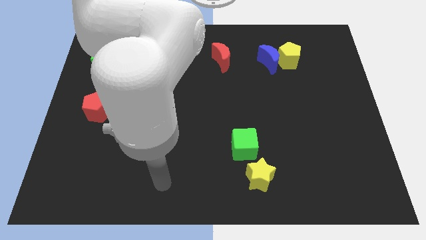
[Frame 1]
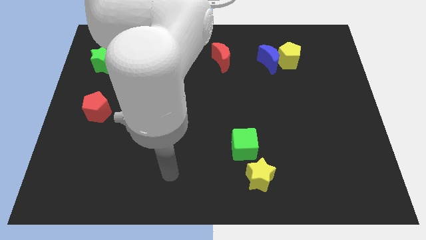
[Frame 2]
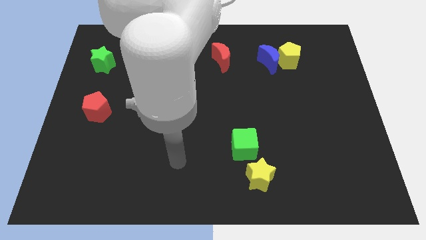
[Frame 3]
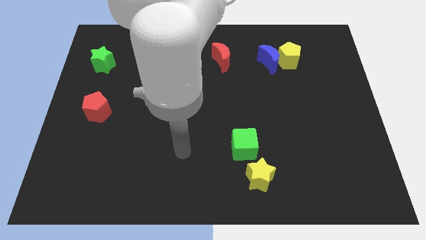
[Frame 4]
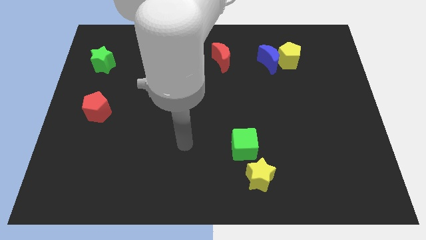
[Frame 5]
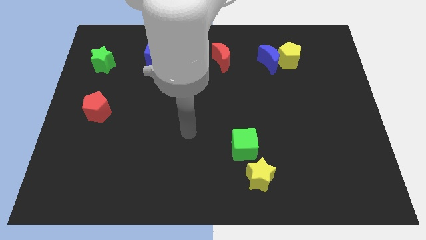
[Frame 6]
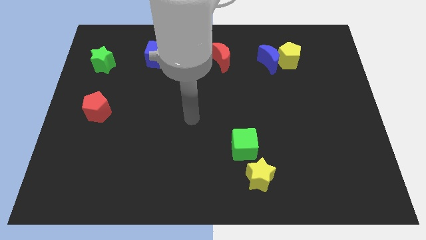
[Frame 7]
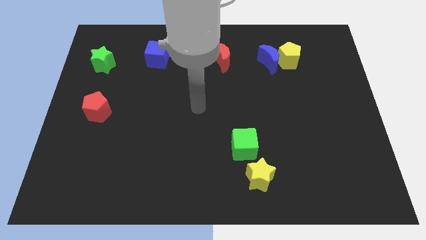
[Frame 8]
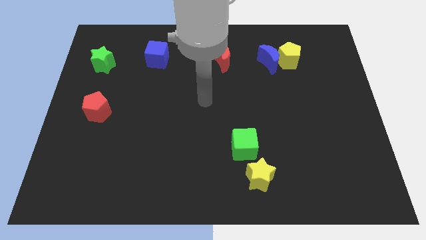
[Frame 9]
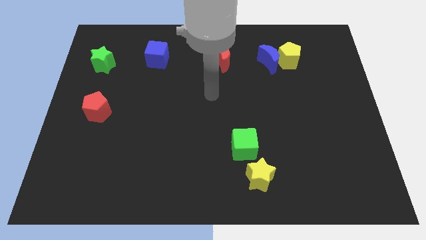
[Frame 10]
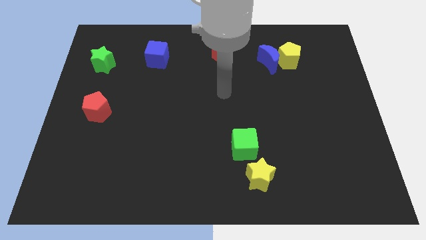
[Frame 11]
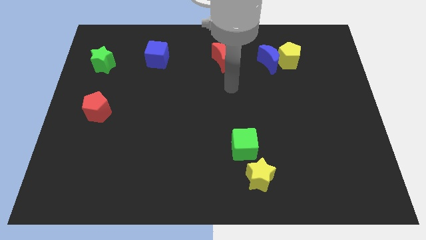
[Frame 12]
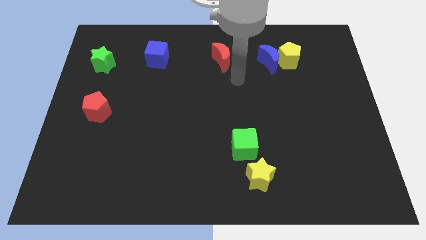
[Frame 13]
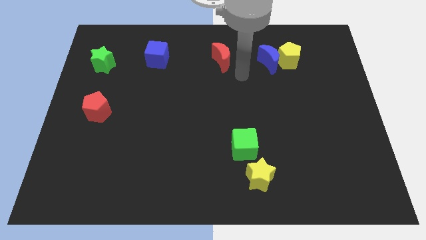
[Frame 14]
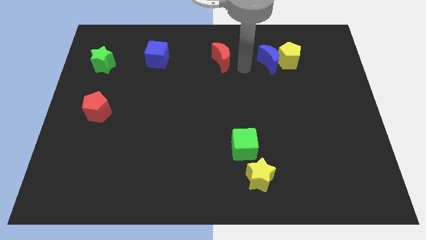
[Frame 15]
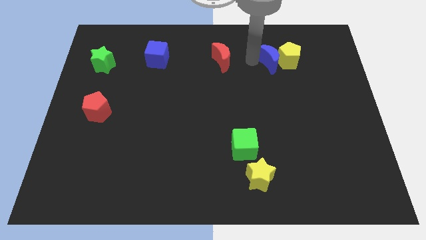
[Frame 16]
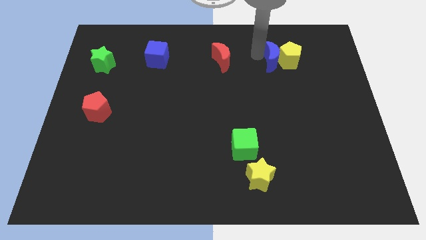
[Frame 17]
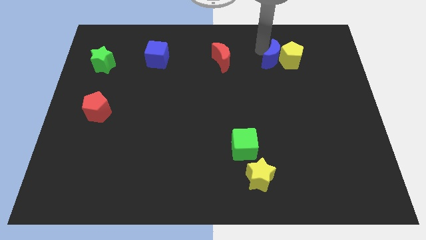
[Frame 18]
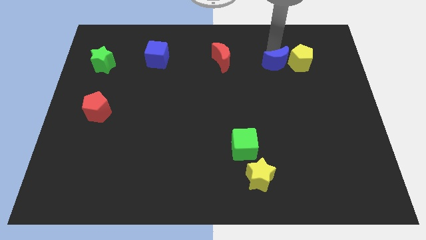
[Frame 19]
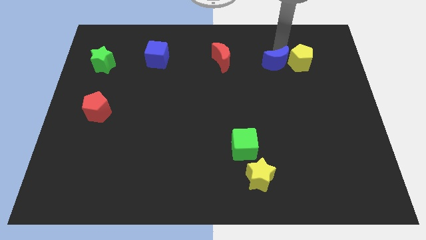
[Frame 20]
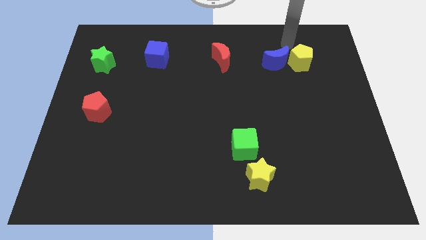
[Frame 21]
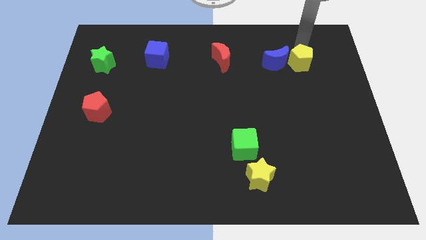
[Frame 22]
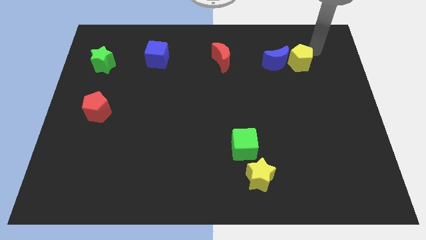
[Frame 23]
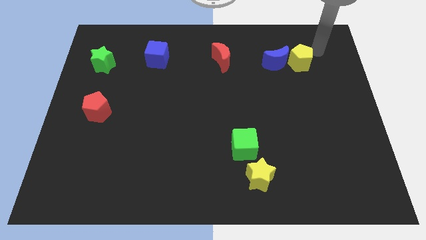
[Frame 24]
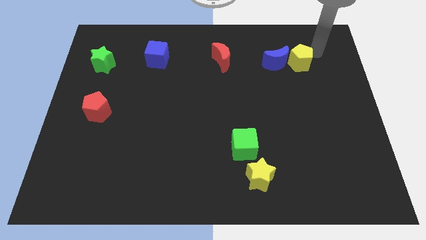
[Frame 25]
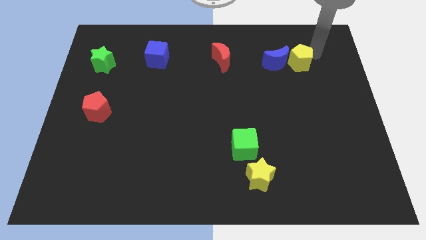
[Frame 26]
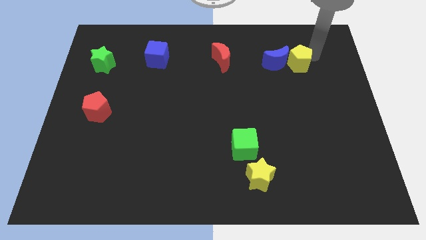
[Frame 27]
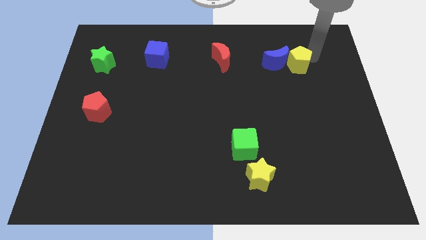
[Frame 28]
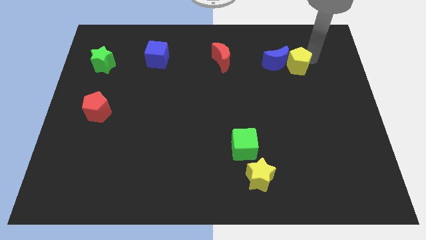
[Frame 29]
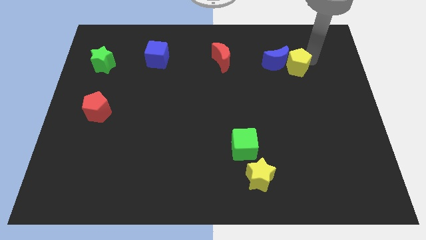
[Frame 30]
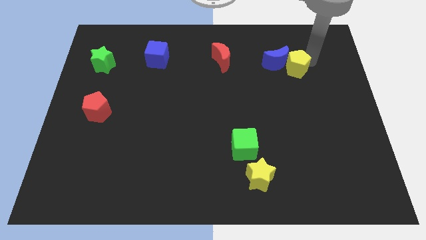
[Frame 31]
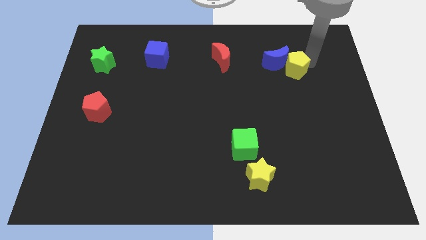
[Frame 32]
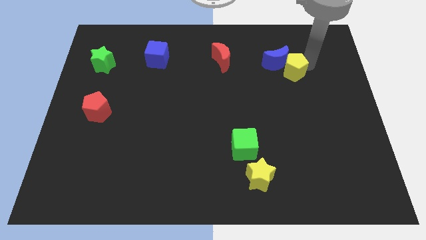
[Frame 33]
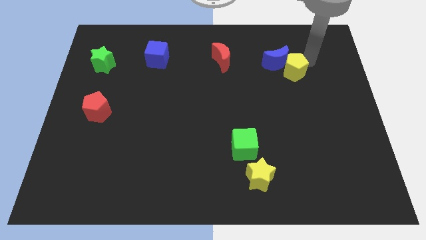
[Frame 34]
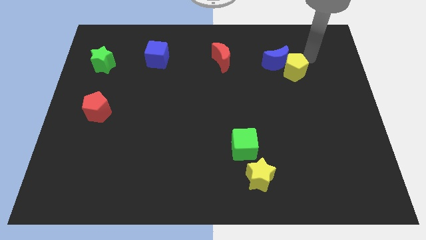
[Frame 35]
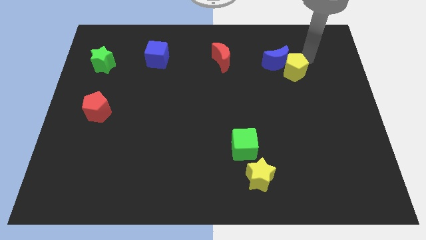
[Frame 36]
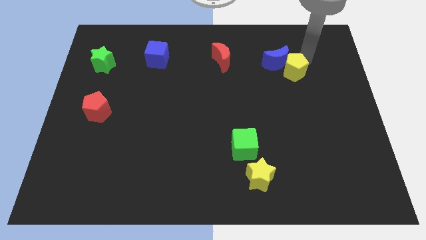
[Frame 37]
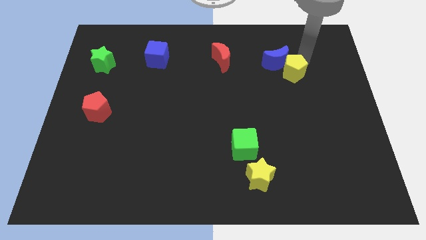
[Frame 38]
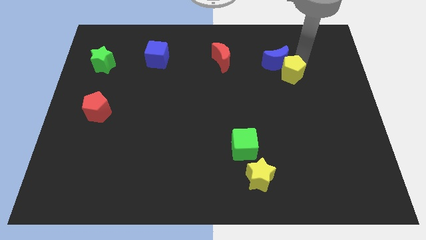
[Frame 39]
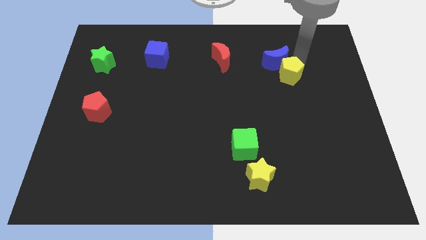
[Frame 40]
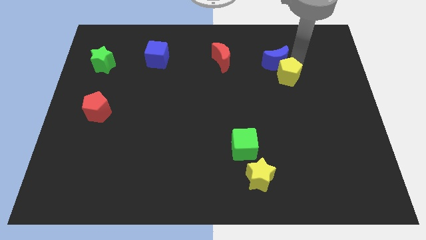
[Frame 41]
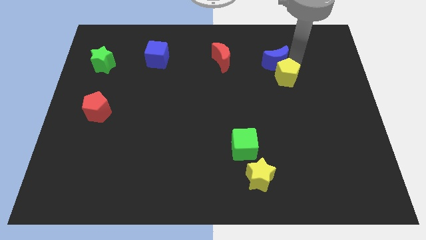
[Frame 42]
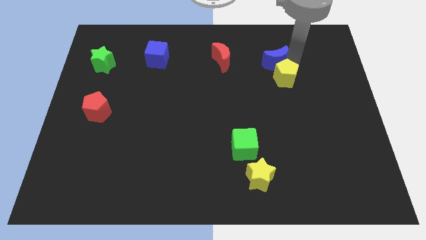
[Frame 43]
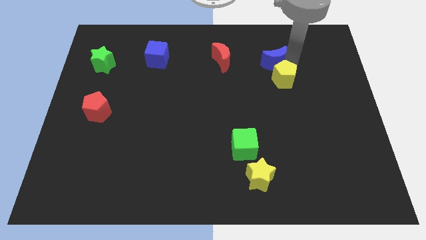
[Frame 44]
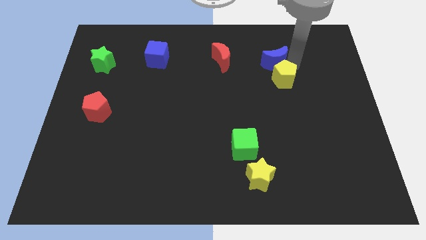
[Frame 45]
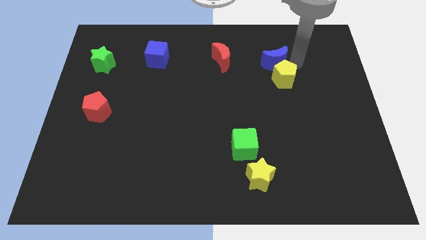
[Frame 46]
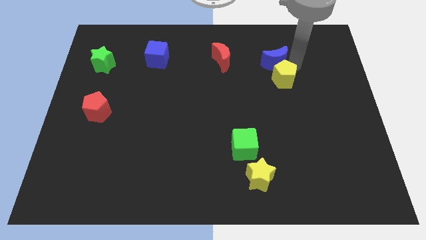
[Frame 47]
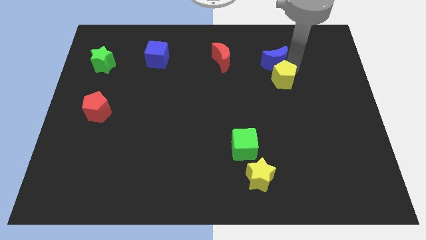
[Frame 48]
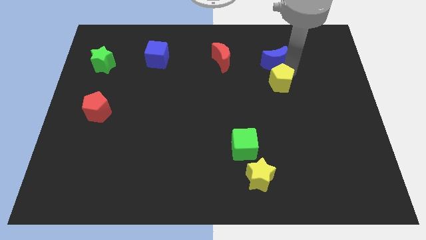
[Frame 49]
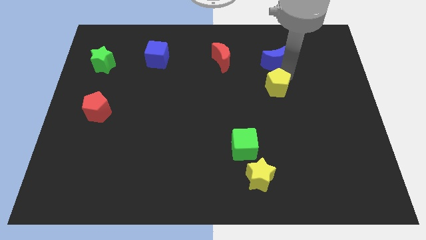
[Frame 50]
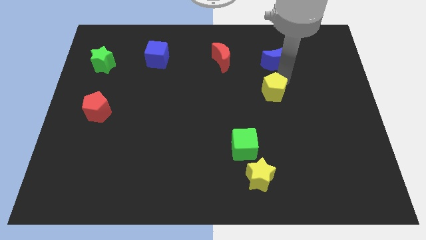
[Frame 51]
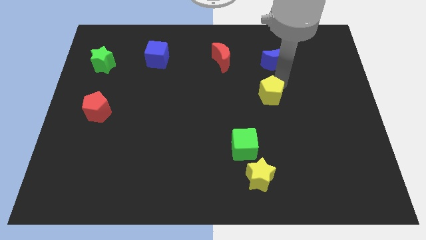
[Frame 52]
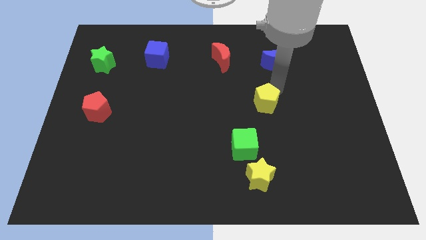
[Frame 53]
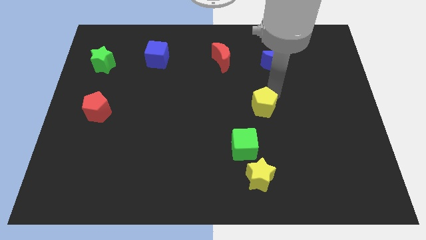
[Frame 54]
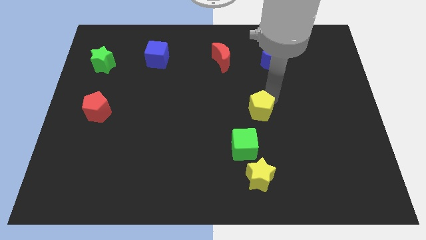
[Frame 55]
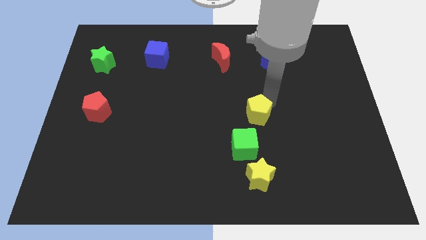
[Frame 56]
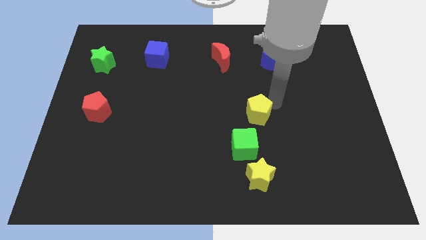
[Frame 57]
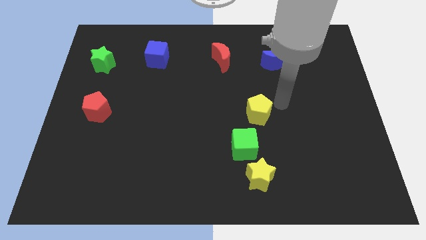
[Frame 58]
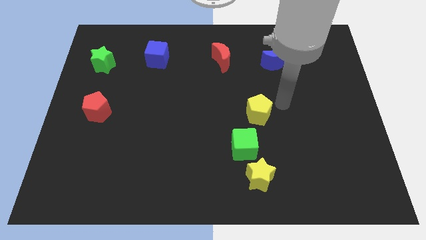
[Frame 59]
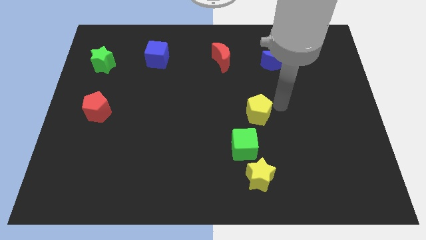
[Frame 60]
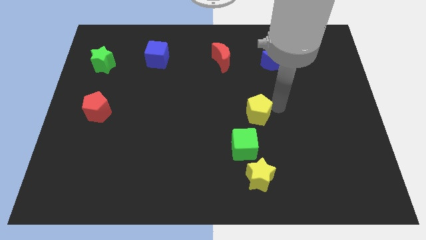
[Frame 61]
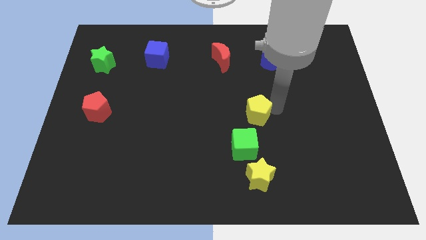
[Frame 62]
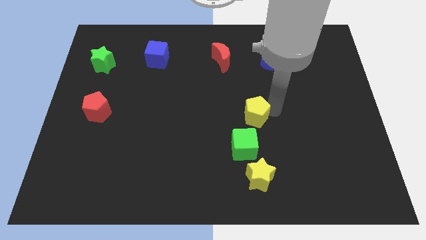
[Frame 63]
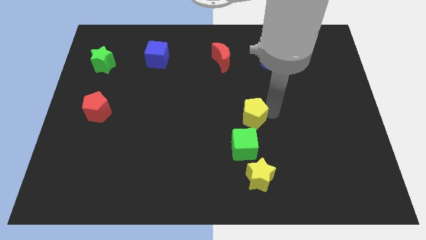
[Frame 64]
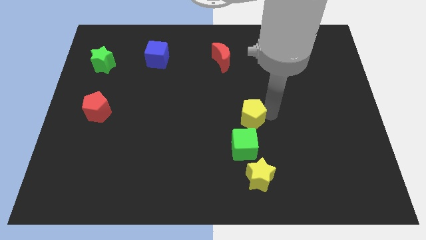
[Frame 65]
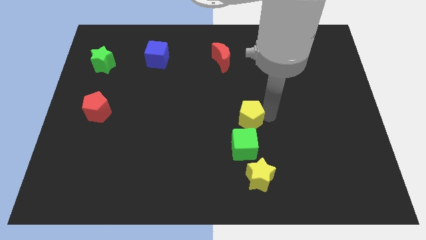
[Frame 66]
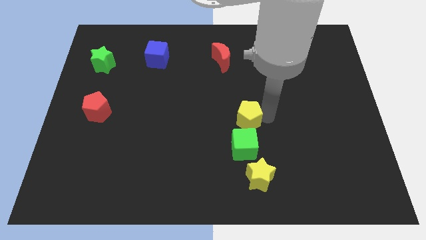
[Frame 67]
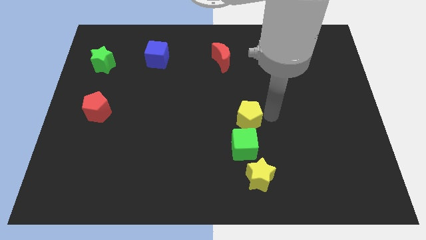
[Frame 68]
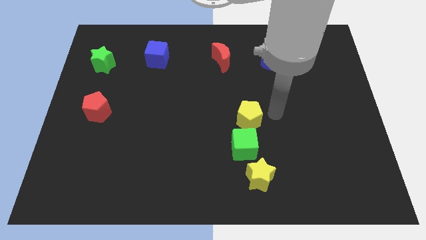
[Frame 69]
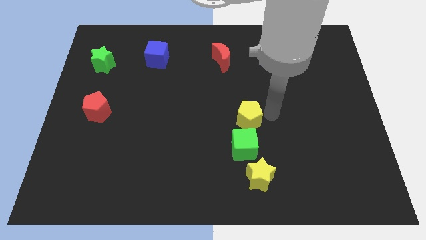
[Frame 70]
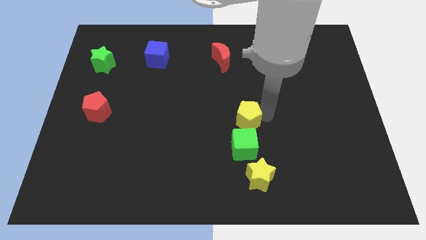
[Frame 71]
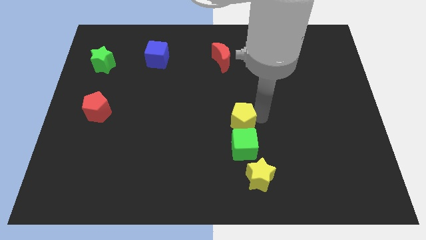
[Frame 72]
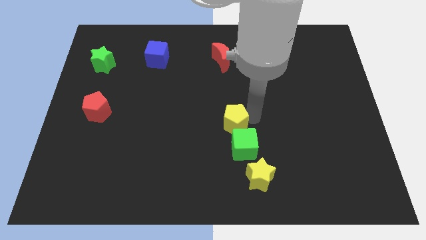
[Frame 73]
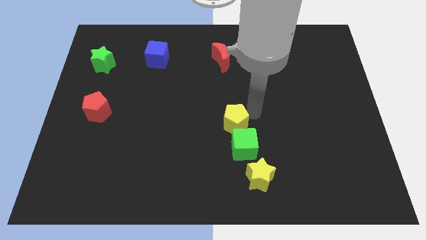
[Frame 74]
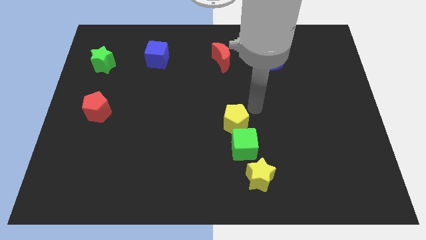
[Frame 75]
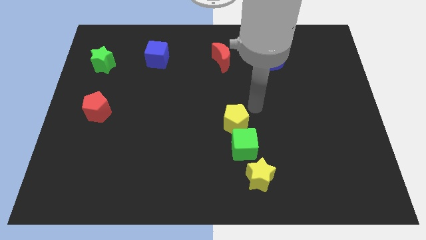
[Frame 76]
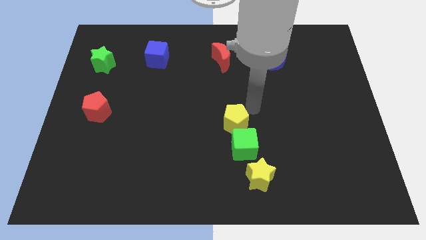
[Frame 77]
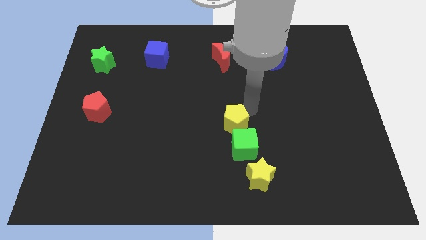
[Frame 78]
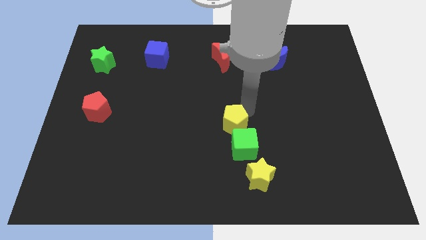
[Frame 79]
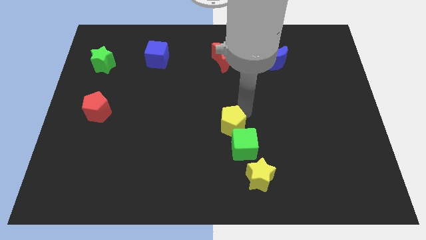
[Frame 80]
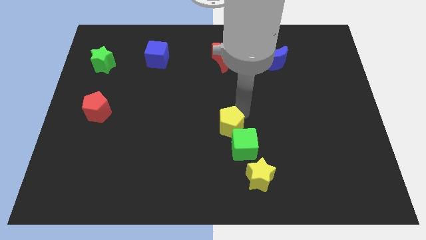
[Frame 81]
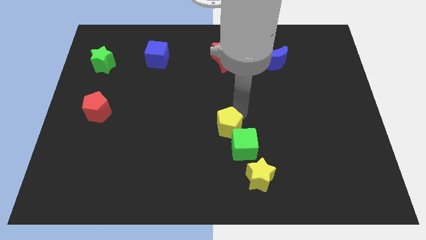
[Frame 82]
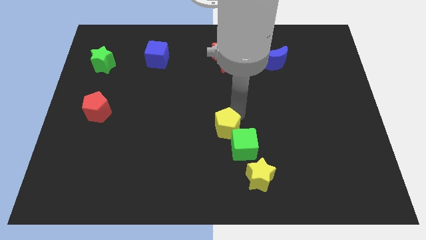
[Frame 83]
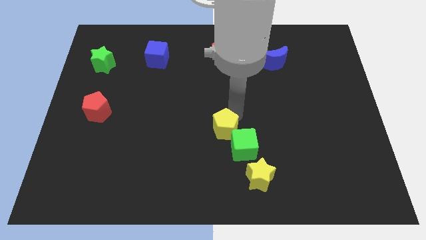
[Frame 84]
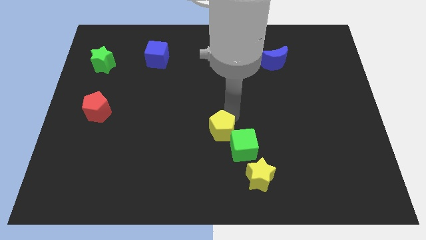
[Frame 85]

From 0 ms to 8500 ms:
put the yellow pentagon left of the green cube
